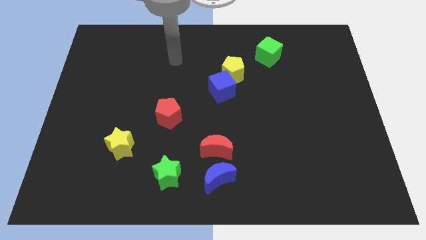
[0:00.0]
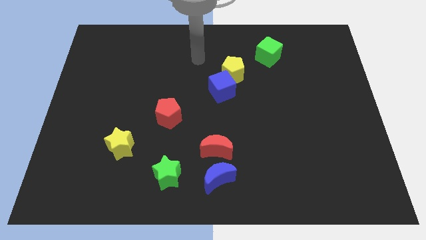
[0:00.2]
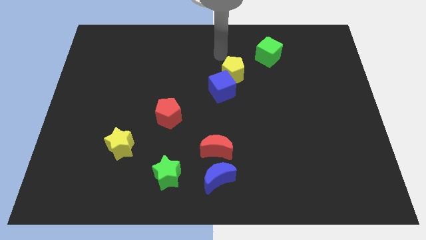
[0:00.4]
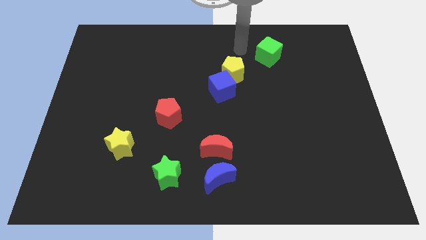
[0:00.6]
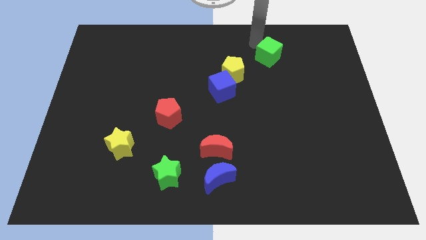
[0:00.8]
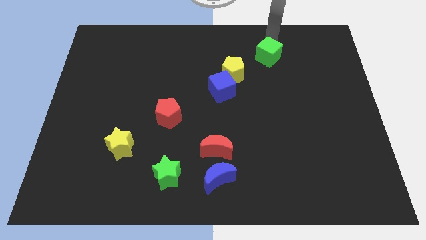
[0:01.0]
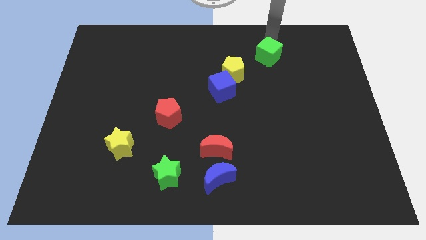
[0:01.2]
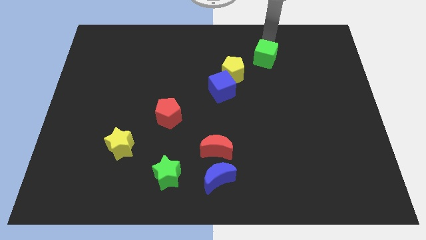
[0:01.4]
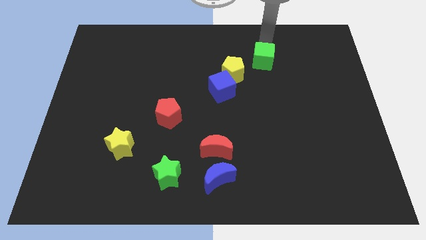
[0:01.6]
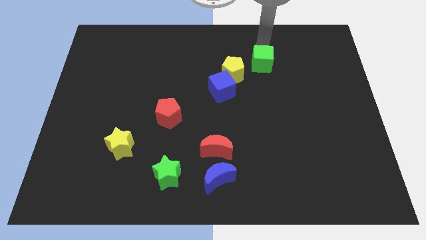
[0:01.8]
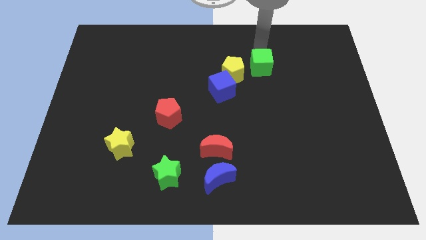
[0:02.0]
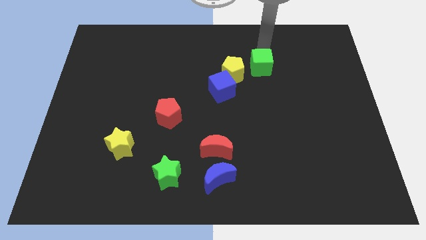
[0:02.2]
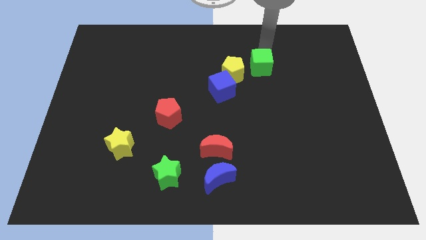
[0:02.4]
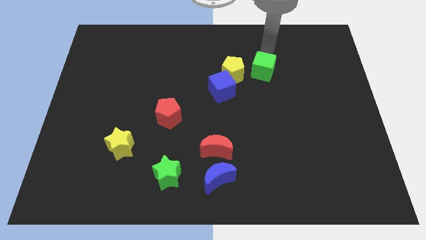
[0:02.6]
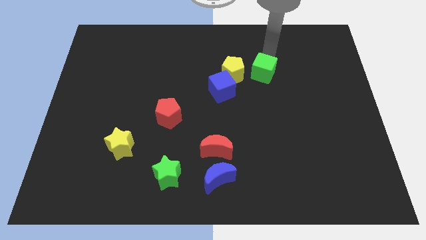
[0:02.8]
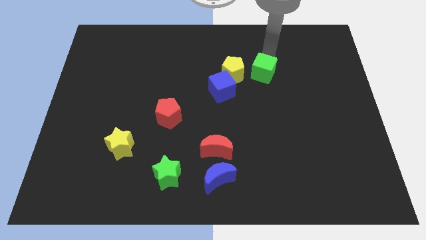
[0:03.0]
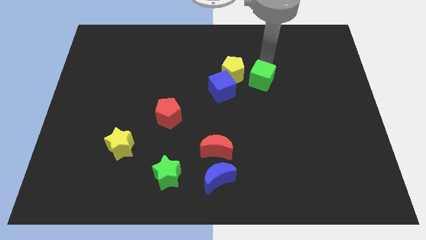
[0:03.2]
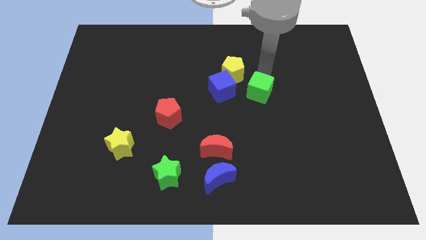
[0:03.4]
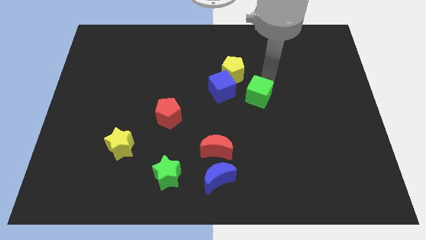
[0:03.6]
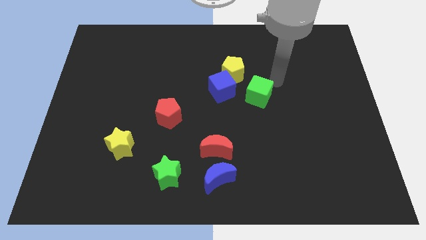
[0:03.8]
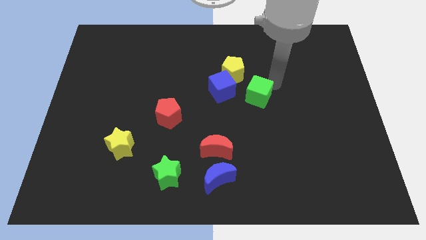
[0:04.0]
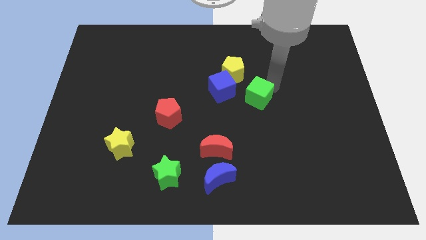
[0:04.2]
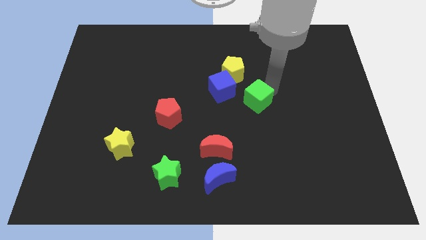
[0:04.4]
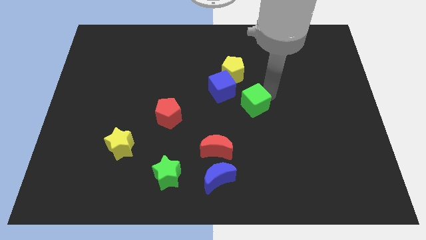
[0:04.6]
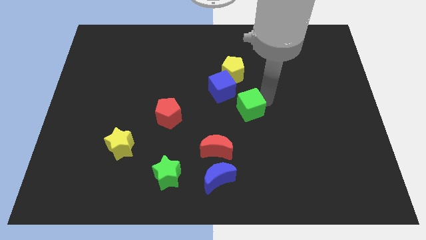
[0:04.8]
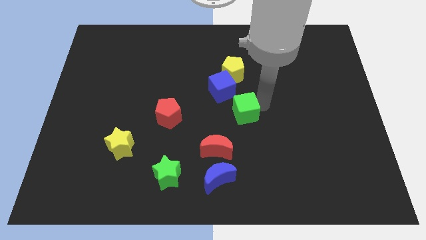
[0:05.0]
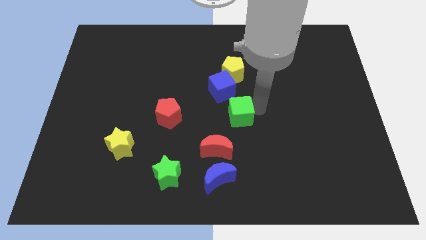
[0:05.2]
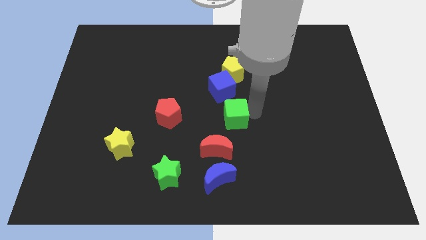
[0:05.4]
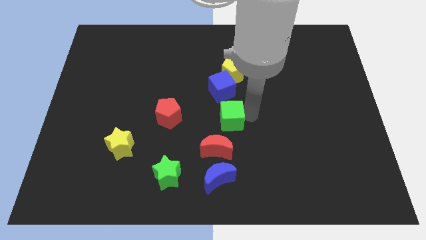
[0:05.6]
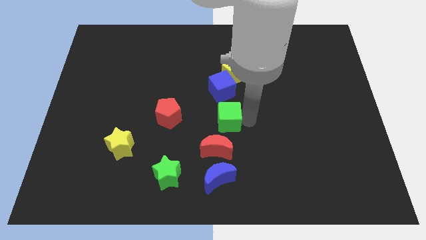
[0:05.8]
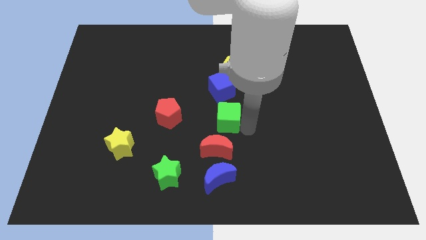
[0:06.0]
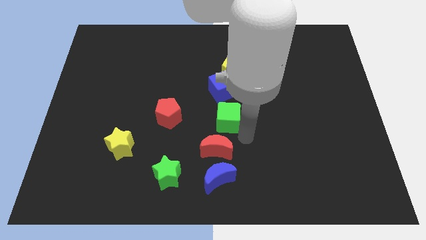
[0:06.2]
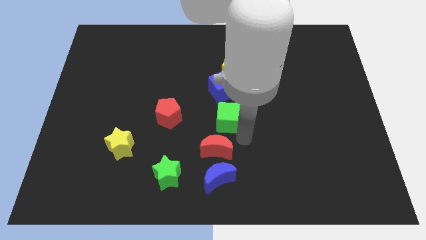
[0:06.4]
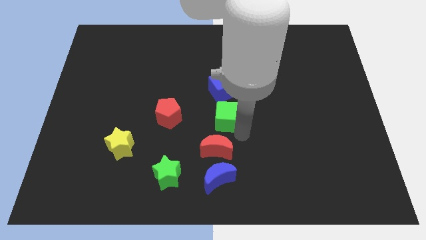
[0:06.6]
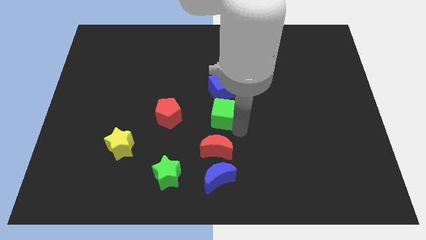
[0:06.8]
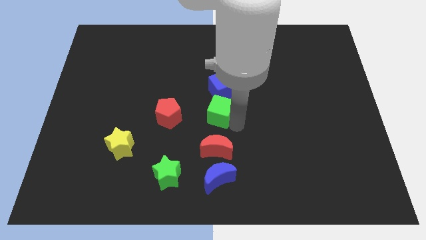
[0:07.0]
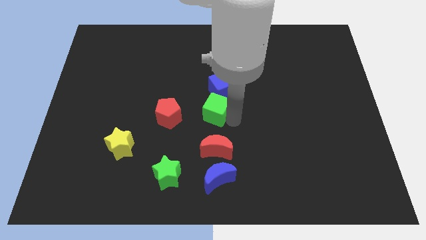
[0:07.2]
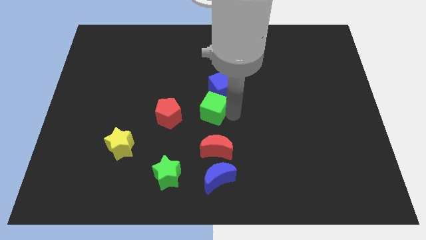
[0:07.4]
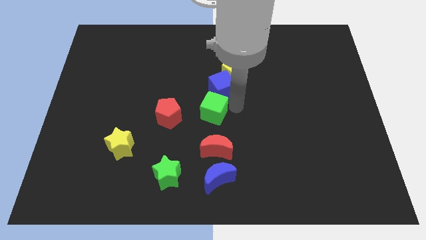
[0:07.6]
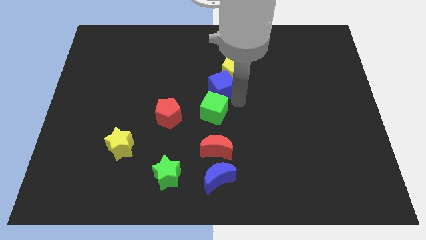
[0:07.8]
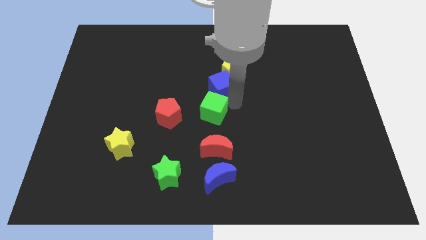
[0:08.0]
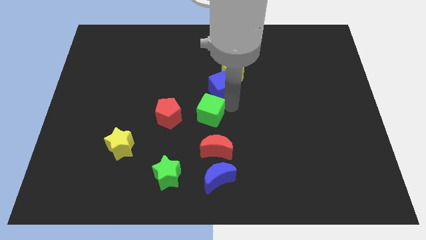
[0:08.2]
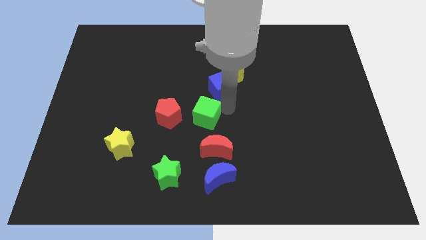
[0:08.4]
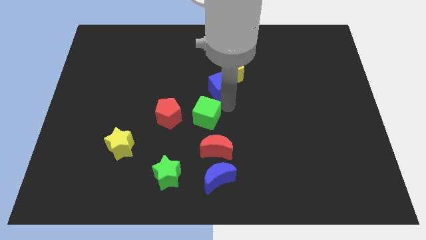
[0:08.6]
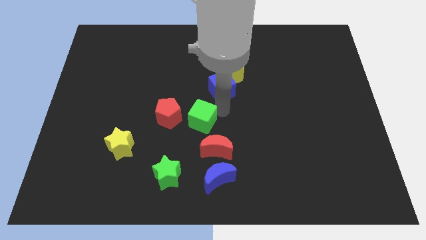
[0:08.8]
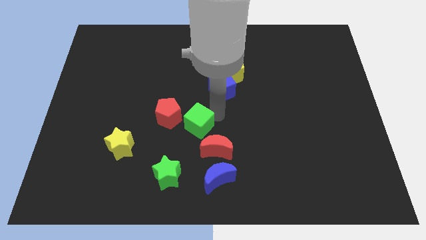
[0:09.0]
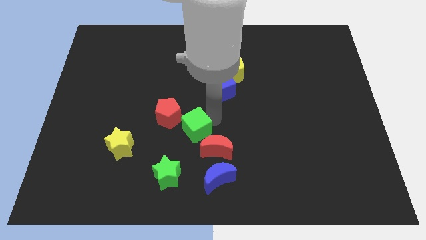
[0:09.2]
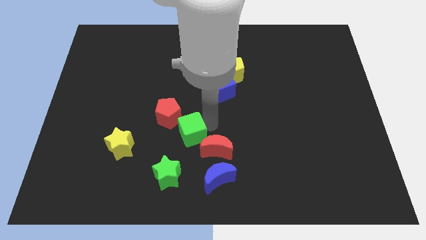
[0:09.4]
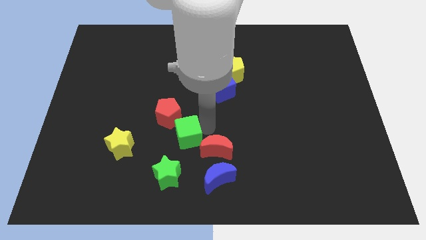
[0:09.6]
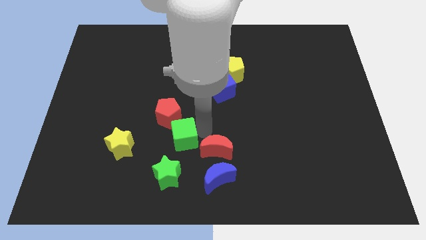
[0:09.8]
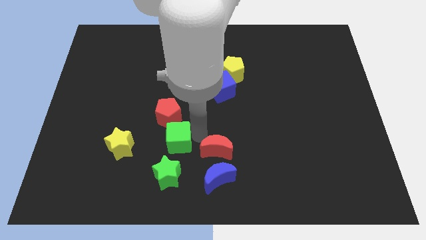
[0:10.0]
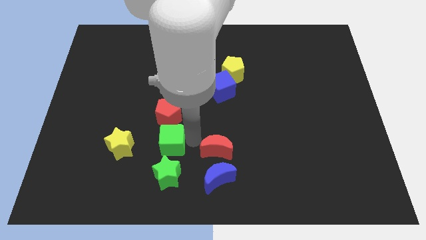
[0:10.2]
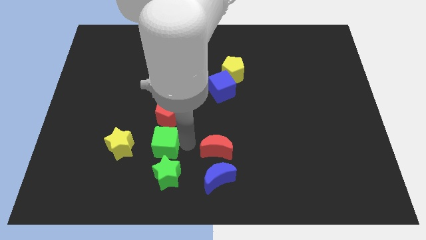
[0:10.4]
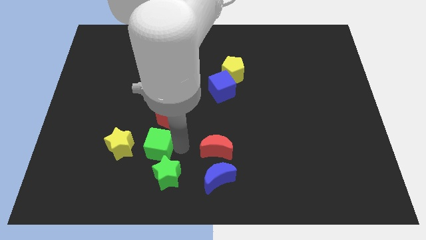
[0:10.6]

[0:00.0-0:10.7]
put the green cube to the bottom left side of the red pentagon

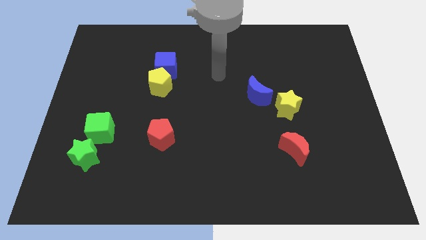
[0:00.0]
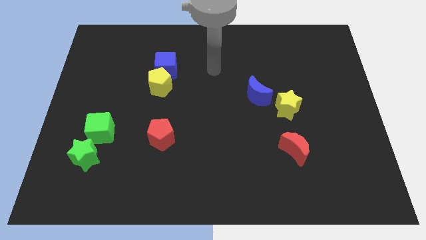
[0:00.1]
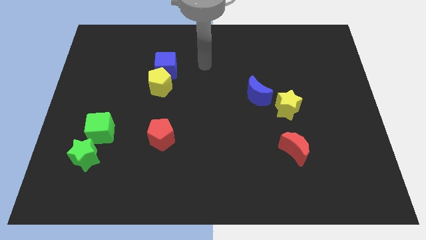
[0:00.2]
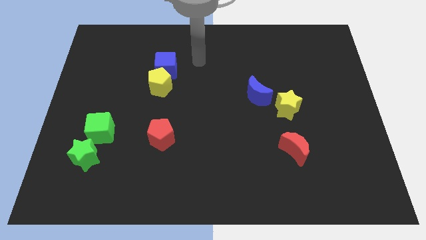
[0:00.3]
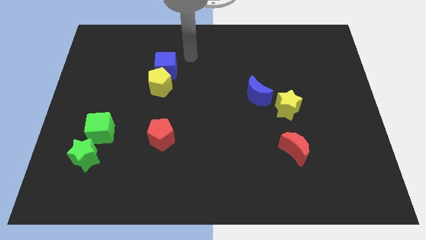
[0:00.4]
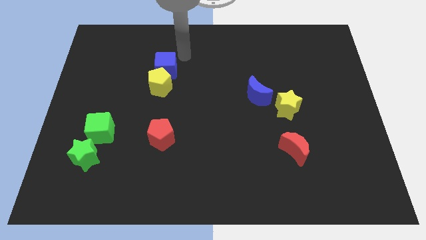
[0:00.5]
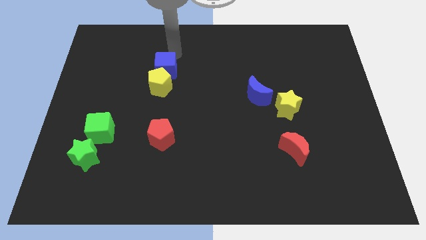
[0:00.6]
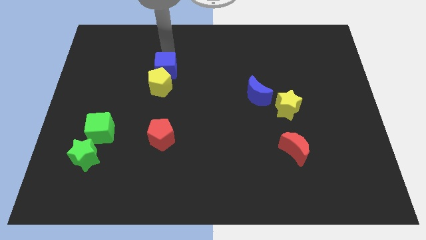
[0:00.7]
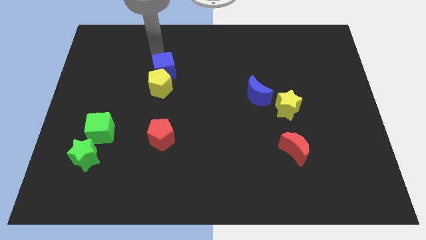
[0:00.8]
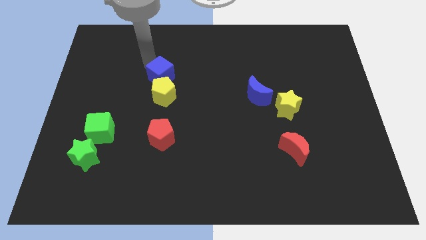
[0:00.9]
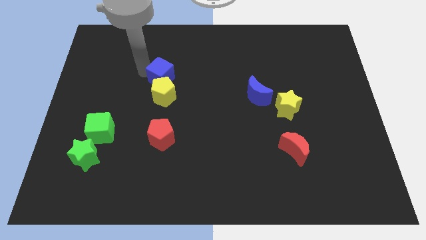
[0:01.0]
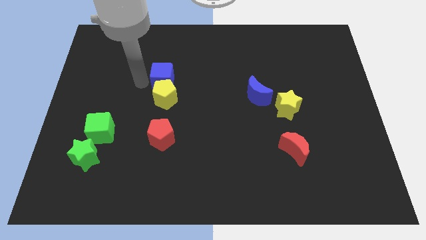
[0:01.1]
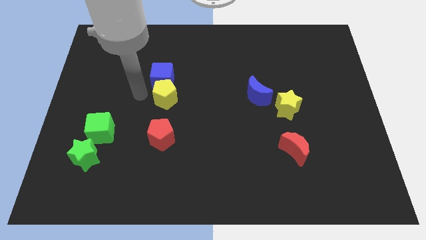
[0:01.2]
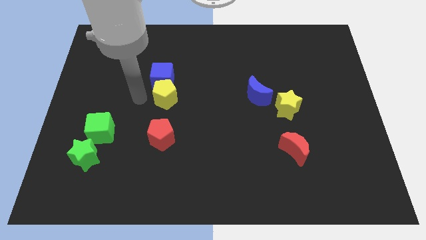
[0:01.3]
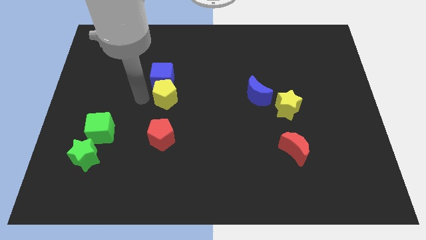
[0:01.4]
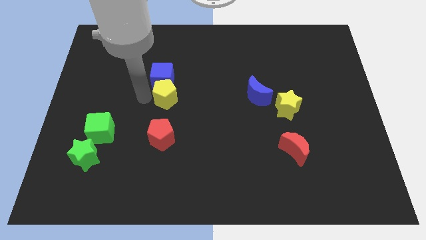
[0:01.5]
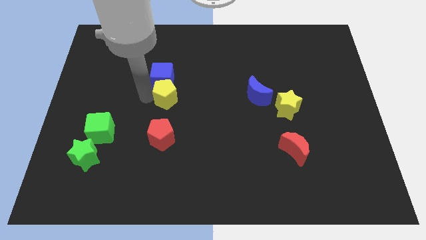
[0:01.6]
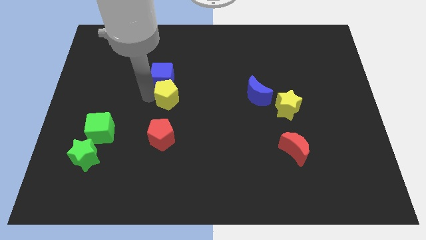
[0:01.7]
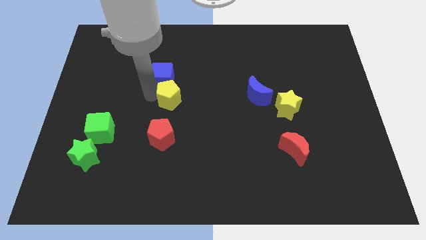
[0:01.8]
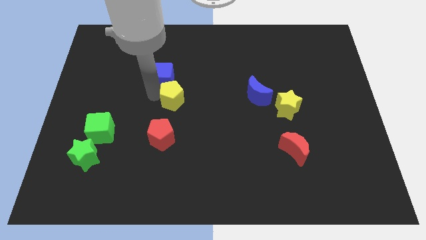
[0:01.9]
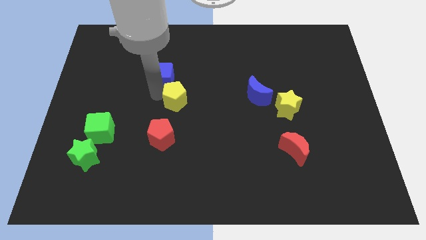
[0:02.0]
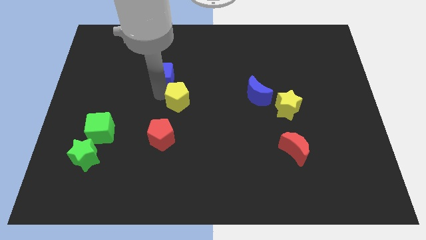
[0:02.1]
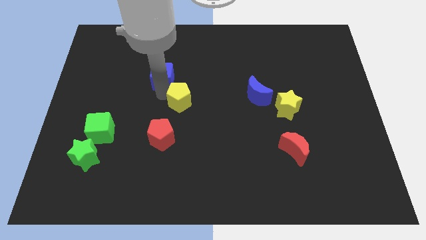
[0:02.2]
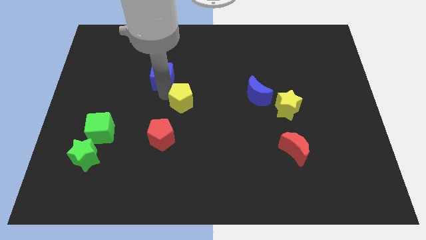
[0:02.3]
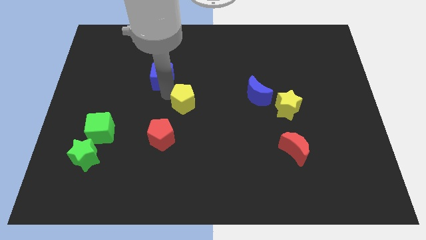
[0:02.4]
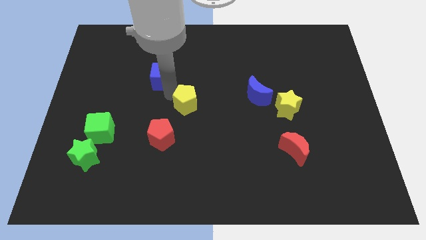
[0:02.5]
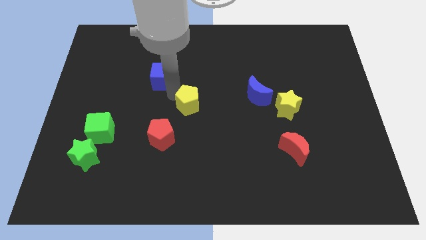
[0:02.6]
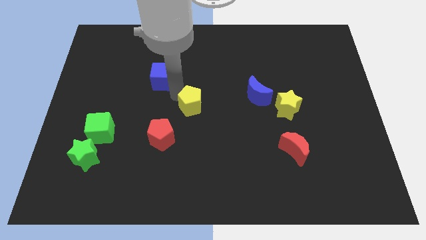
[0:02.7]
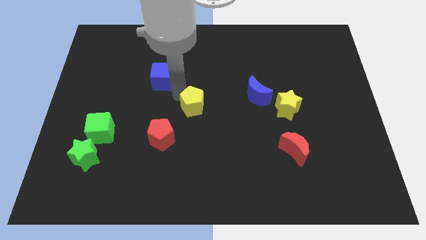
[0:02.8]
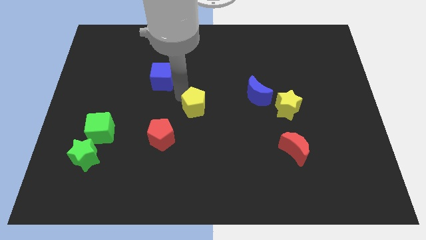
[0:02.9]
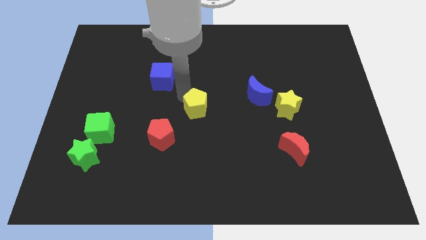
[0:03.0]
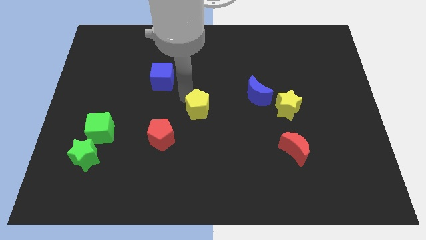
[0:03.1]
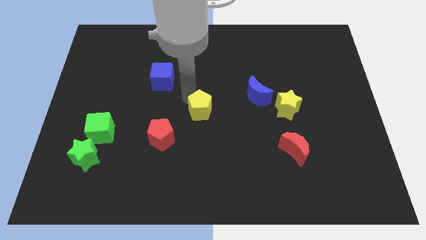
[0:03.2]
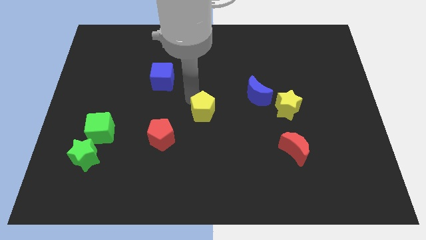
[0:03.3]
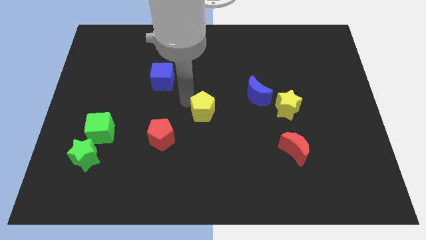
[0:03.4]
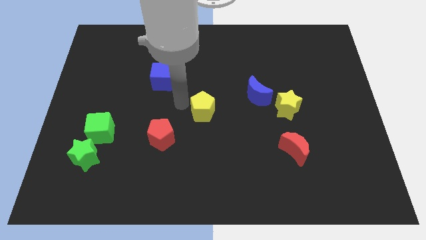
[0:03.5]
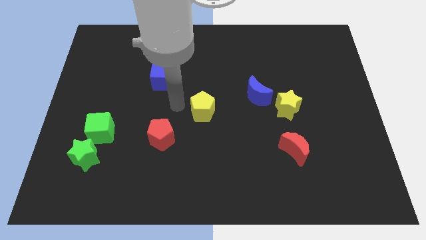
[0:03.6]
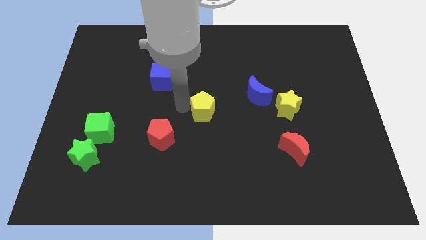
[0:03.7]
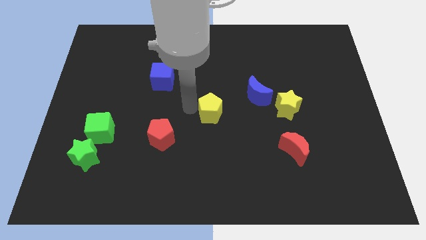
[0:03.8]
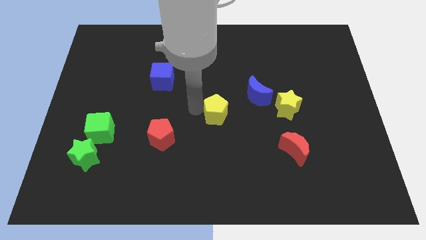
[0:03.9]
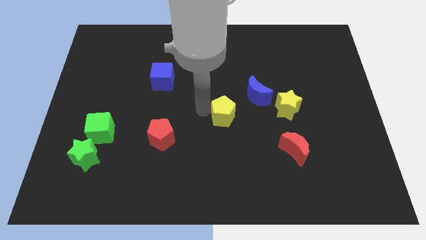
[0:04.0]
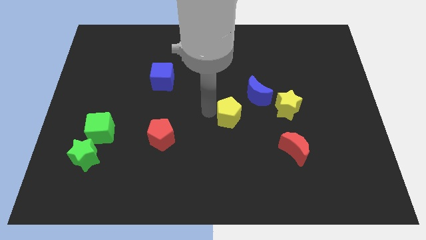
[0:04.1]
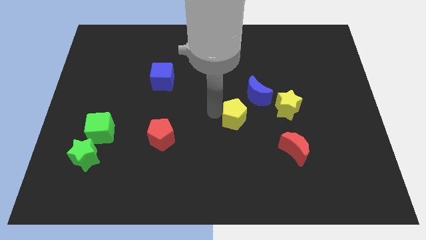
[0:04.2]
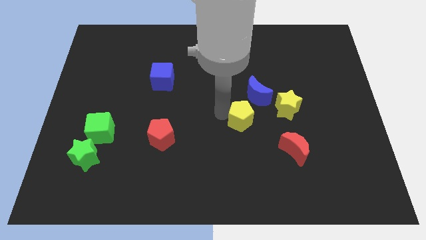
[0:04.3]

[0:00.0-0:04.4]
push the yellow pentagon below the blue moon
